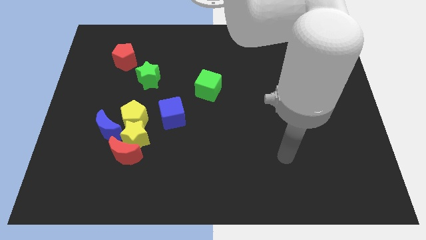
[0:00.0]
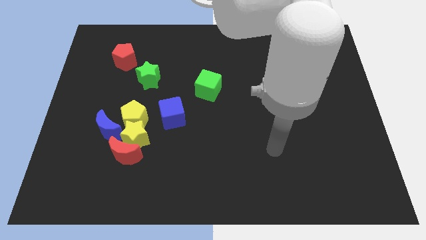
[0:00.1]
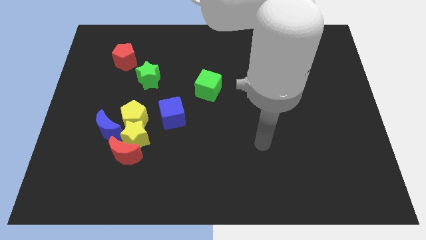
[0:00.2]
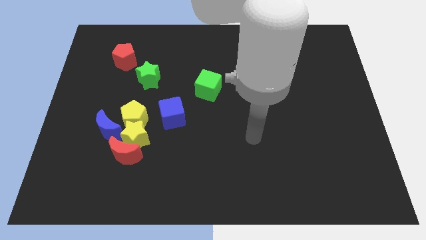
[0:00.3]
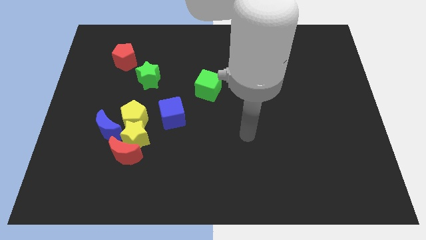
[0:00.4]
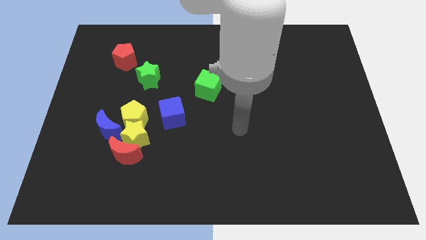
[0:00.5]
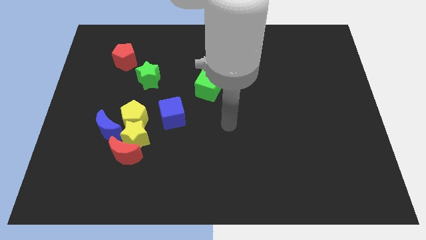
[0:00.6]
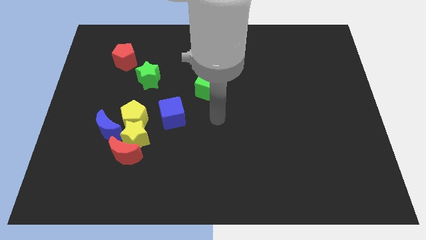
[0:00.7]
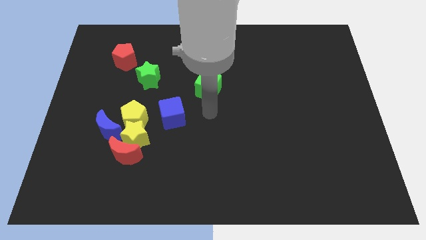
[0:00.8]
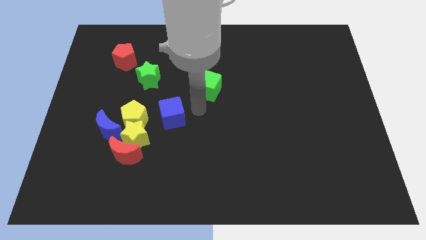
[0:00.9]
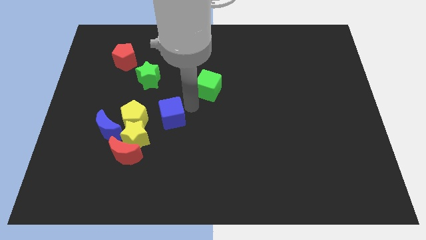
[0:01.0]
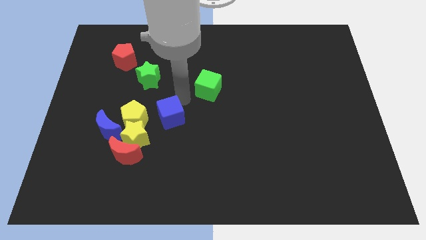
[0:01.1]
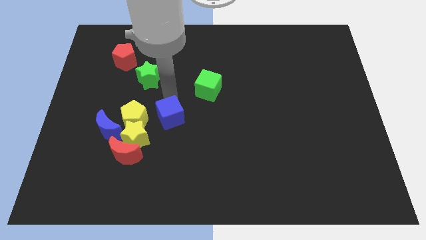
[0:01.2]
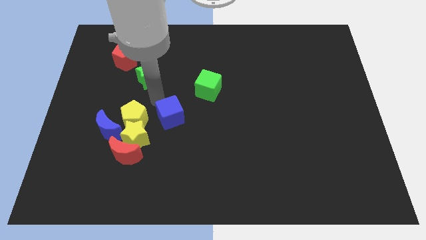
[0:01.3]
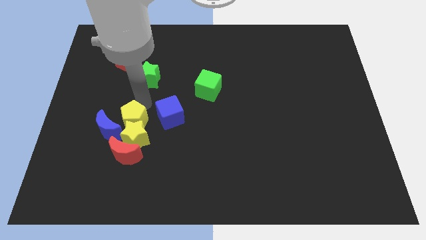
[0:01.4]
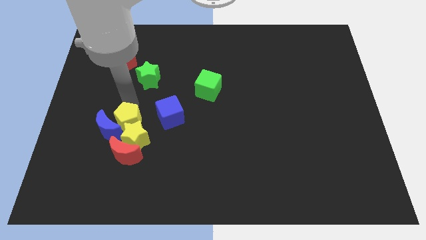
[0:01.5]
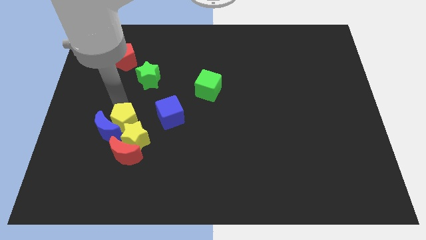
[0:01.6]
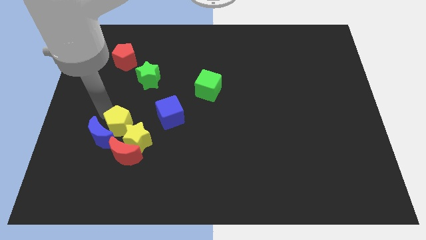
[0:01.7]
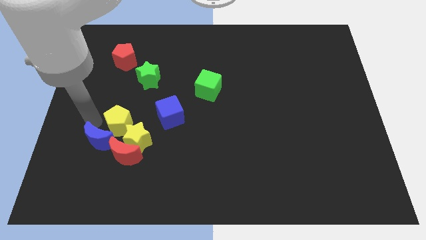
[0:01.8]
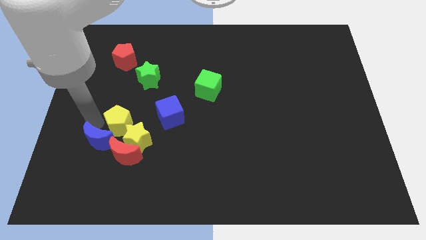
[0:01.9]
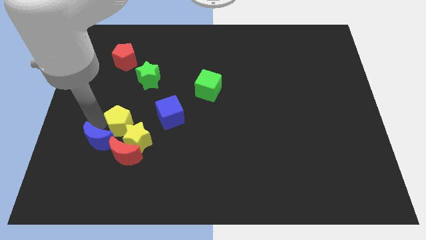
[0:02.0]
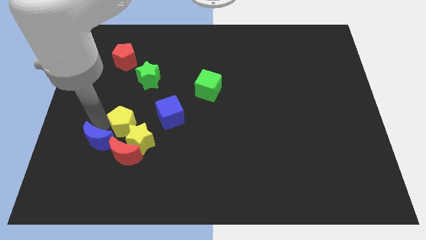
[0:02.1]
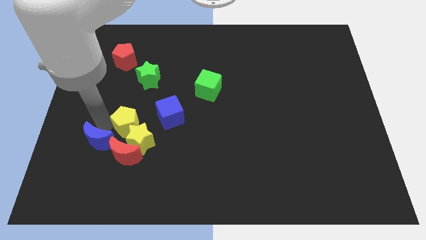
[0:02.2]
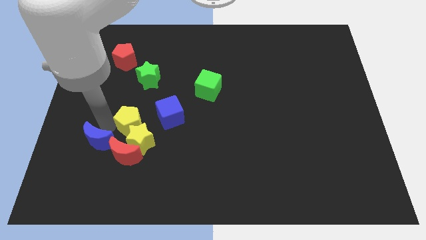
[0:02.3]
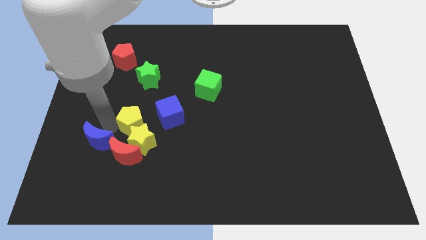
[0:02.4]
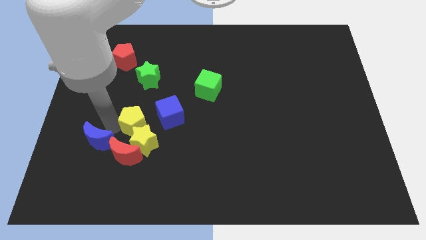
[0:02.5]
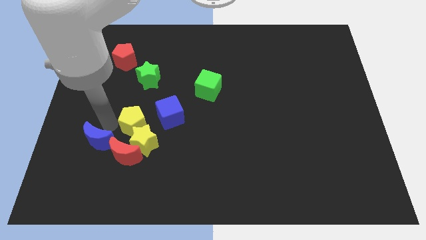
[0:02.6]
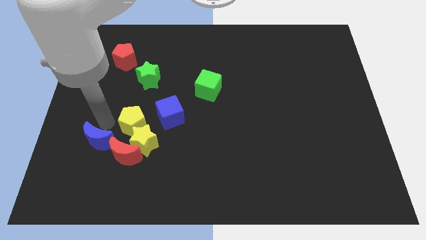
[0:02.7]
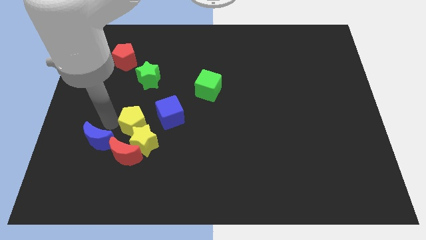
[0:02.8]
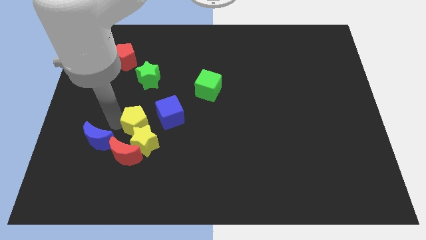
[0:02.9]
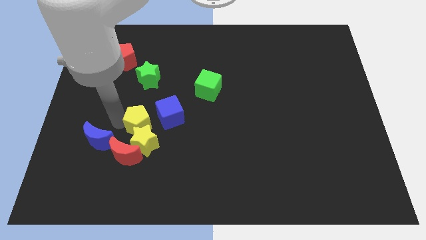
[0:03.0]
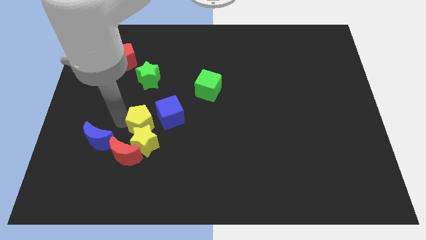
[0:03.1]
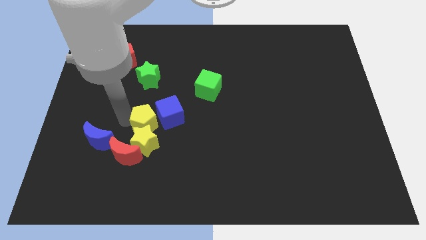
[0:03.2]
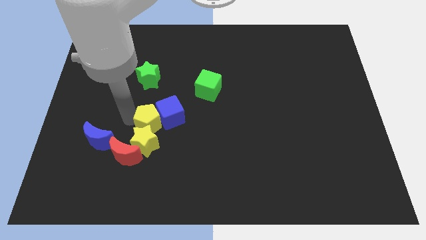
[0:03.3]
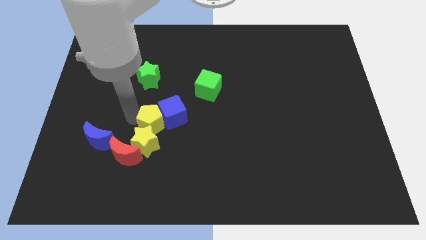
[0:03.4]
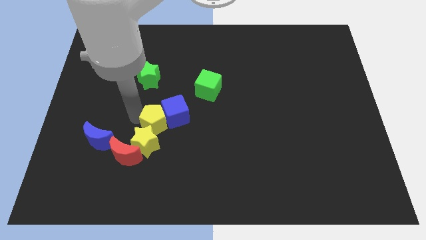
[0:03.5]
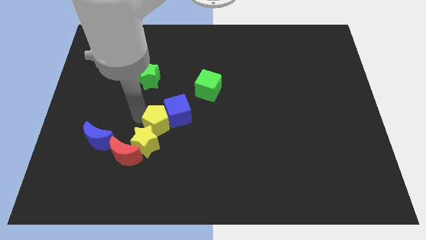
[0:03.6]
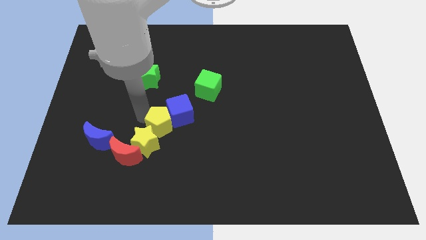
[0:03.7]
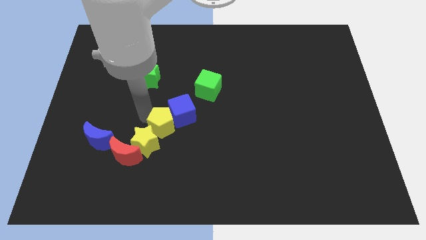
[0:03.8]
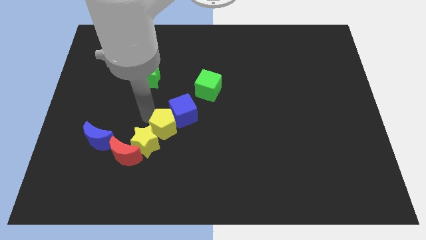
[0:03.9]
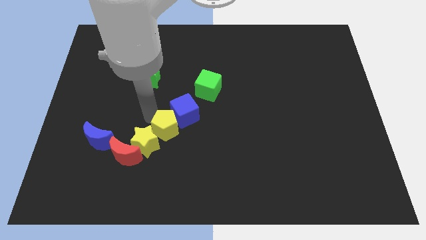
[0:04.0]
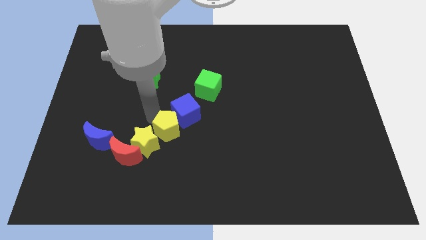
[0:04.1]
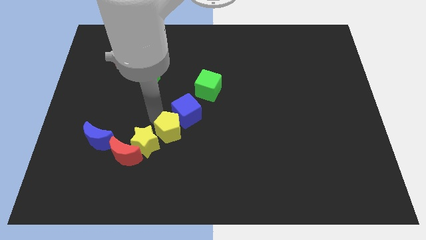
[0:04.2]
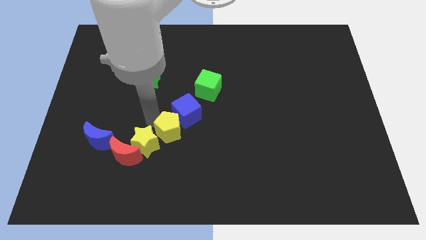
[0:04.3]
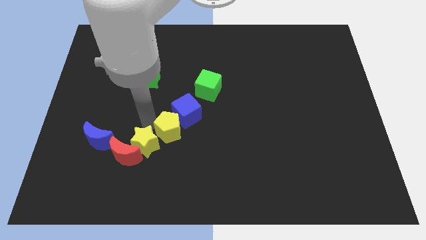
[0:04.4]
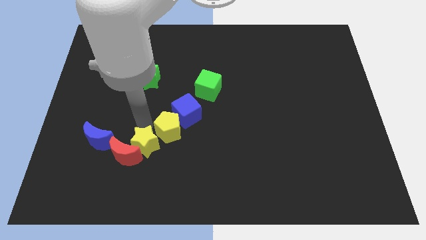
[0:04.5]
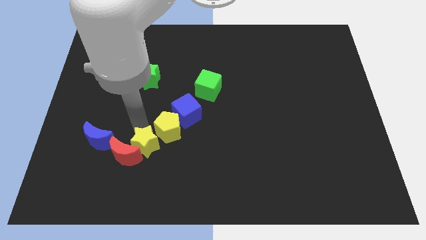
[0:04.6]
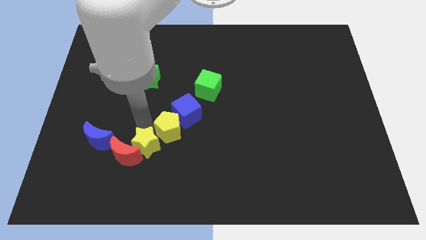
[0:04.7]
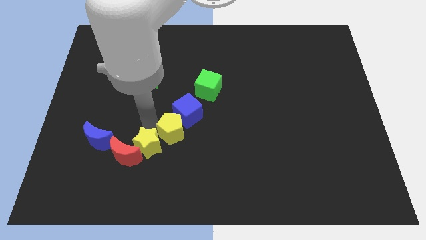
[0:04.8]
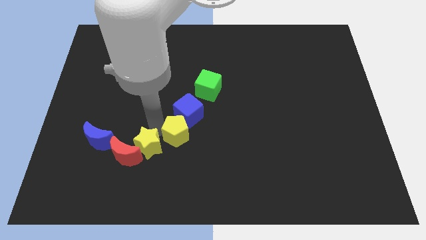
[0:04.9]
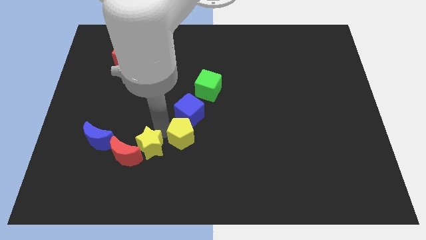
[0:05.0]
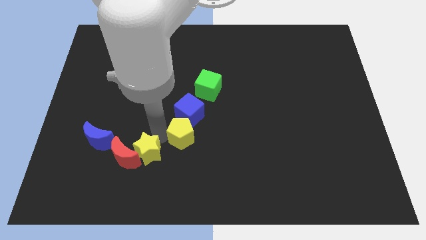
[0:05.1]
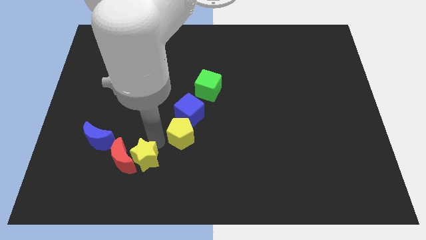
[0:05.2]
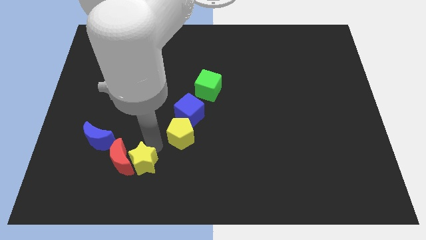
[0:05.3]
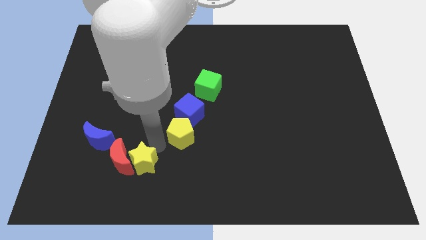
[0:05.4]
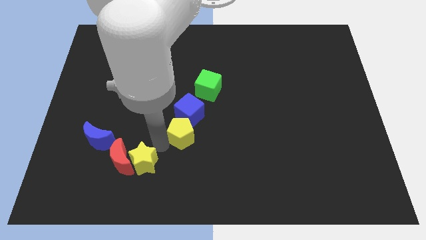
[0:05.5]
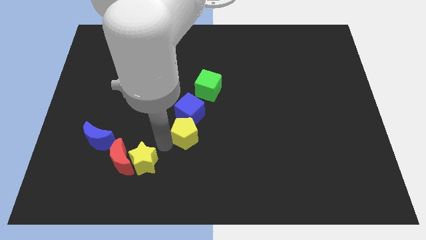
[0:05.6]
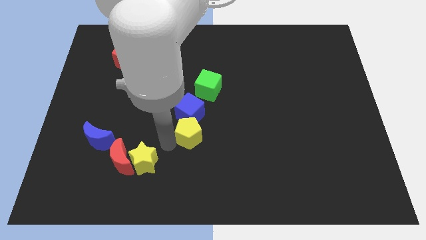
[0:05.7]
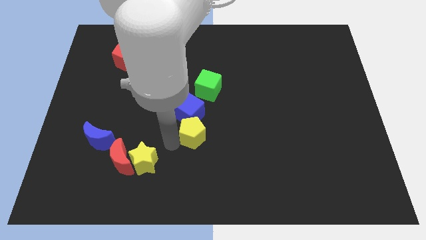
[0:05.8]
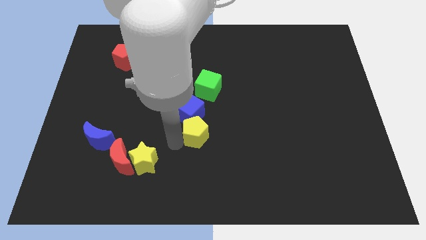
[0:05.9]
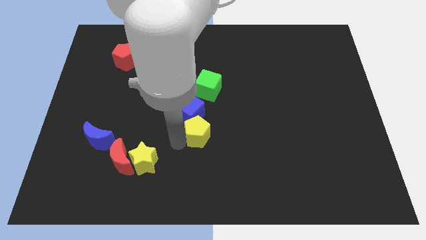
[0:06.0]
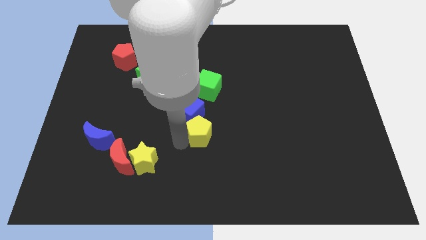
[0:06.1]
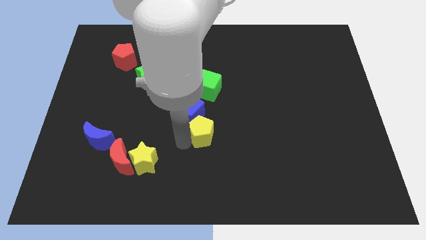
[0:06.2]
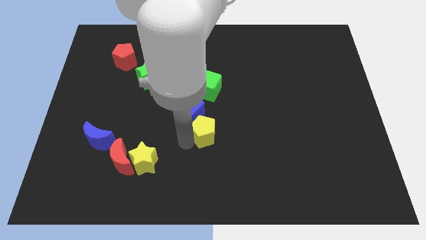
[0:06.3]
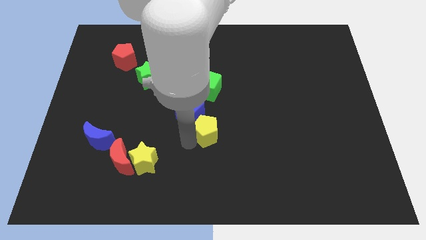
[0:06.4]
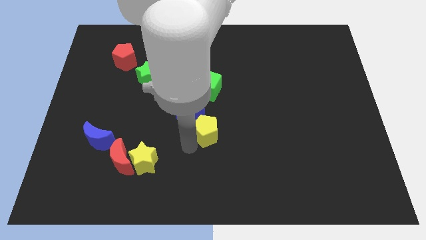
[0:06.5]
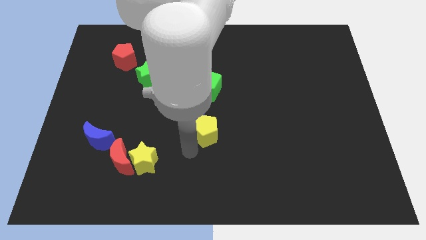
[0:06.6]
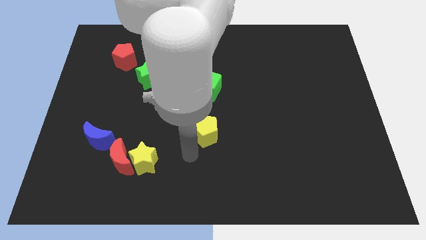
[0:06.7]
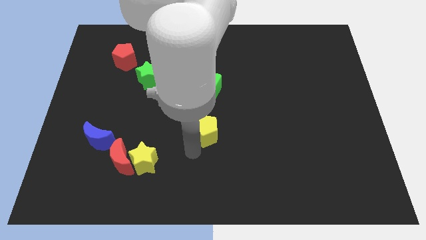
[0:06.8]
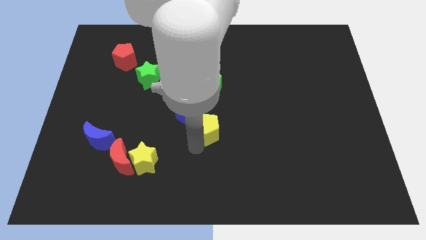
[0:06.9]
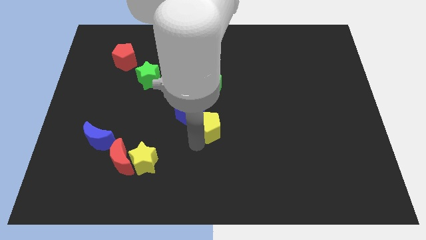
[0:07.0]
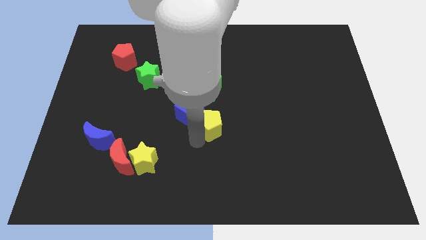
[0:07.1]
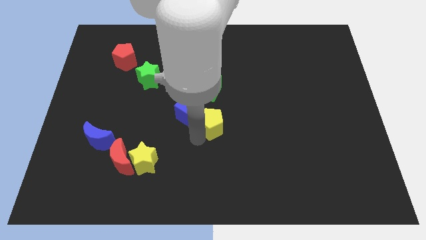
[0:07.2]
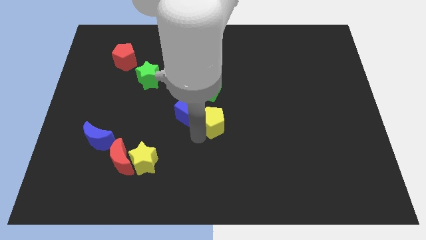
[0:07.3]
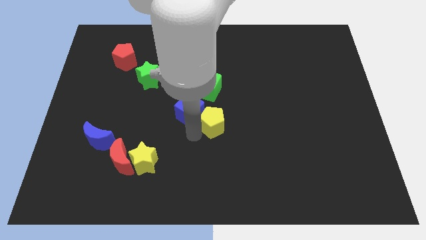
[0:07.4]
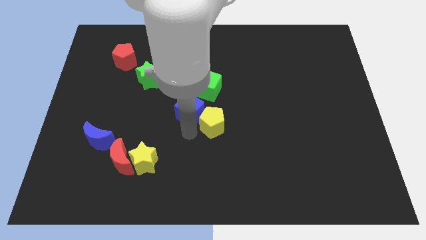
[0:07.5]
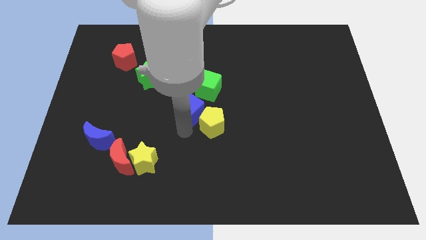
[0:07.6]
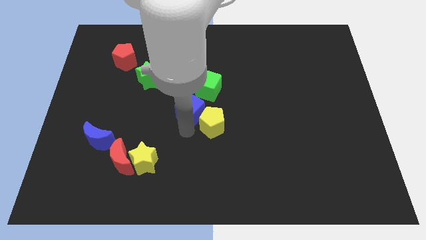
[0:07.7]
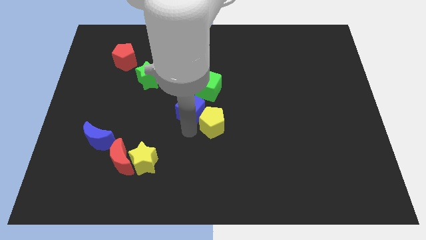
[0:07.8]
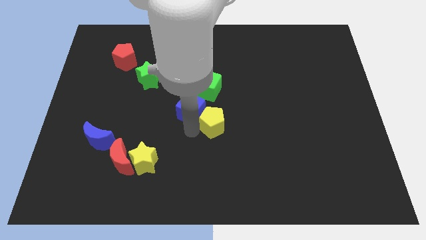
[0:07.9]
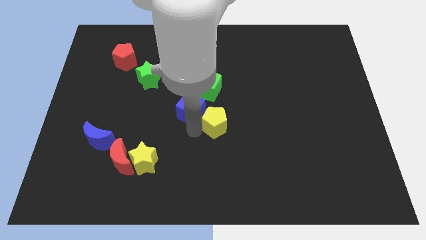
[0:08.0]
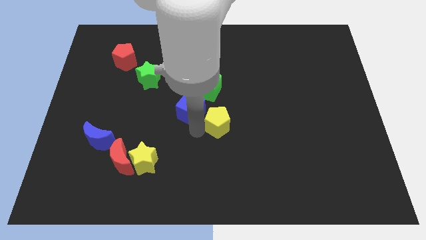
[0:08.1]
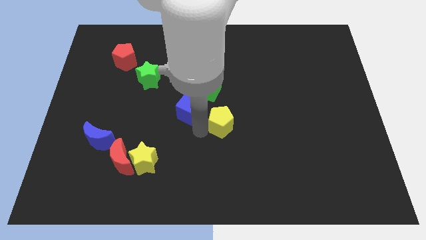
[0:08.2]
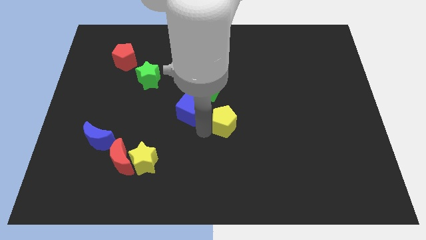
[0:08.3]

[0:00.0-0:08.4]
move the yellow pentagon to the right

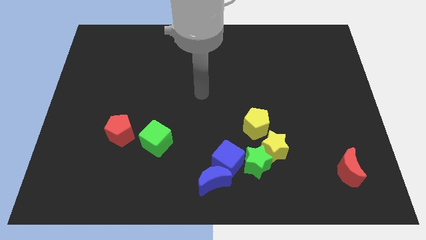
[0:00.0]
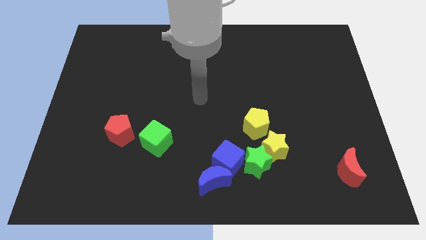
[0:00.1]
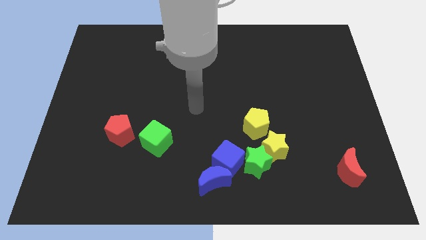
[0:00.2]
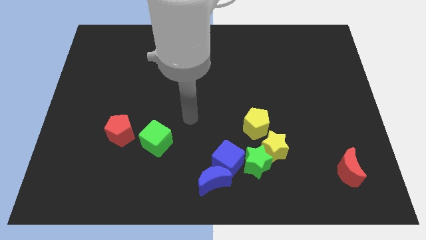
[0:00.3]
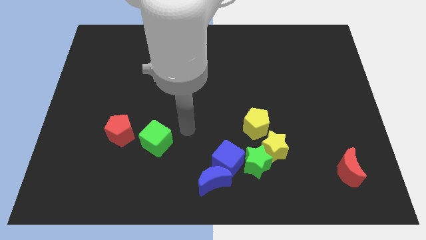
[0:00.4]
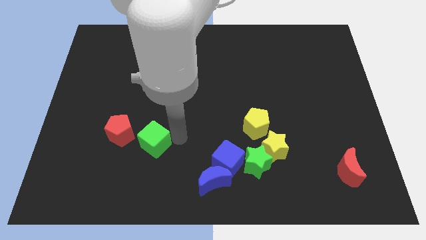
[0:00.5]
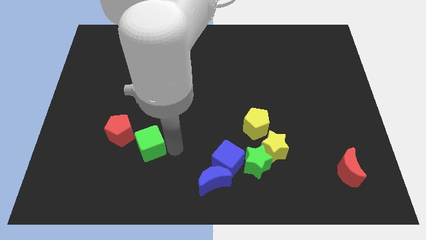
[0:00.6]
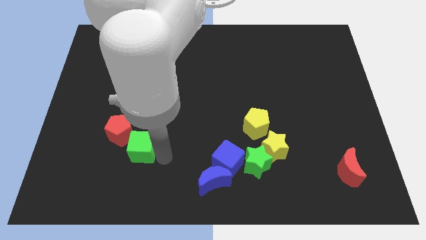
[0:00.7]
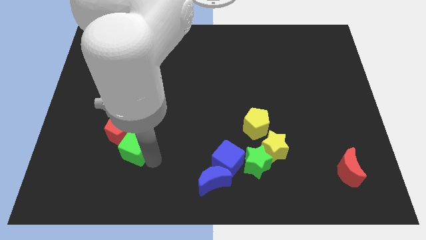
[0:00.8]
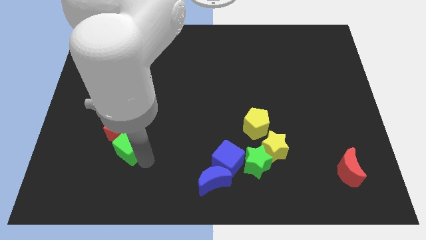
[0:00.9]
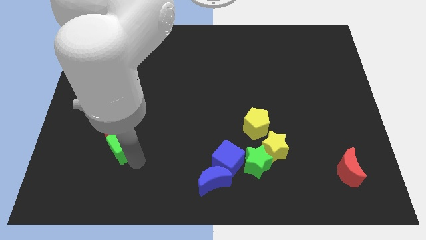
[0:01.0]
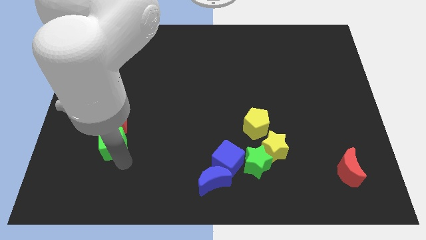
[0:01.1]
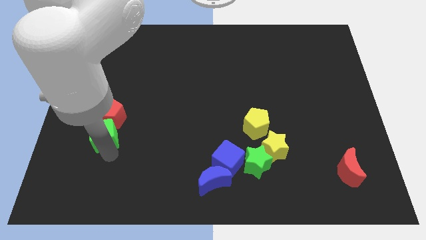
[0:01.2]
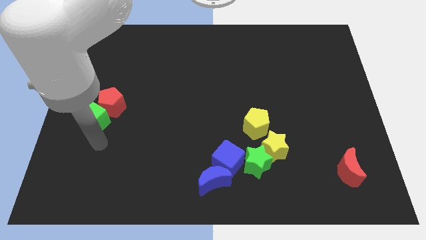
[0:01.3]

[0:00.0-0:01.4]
slide the red pentagon upwards a bit
